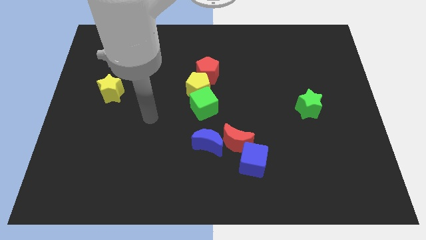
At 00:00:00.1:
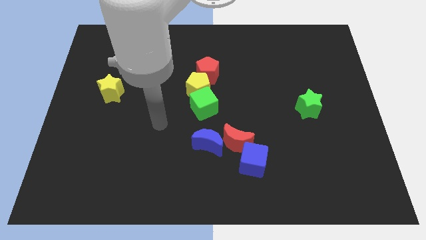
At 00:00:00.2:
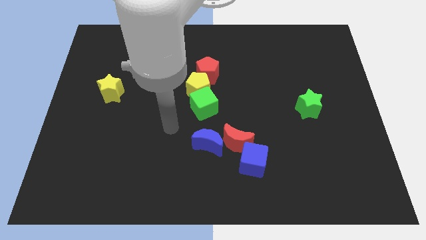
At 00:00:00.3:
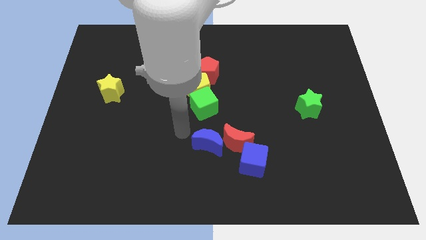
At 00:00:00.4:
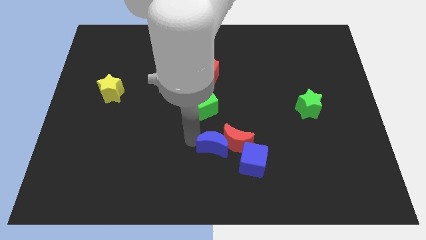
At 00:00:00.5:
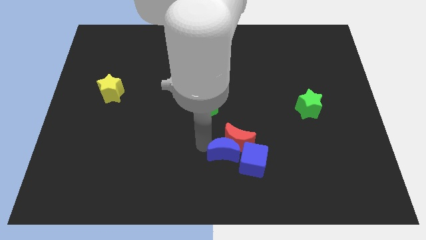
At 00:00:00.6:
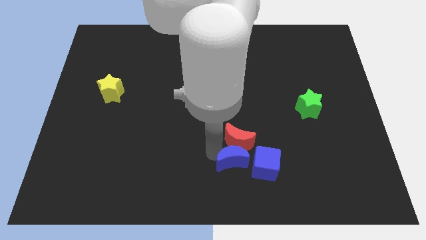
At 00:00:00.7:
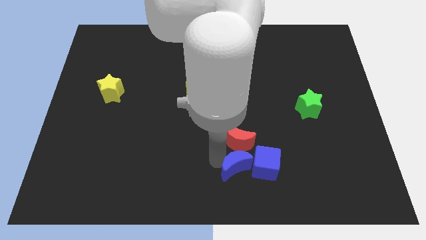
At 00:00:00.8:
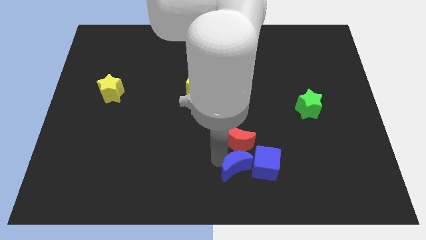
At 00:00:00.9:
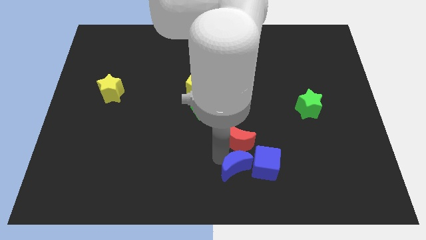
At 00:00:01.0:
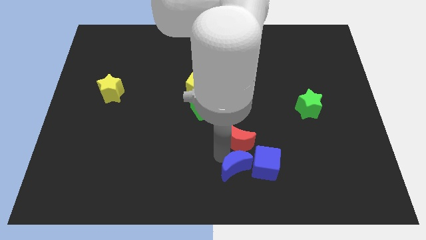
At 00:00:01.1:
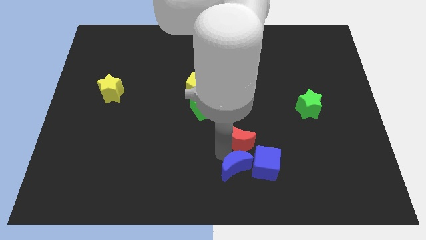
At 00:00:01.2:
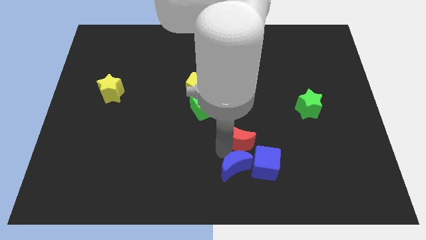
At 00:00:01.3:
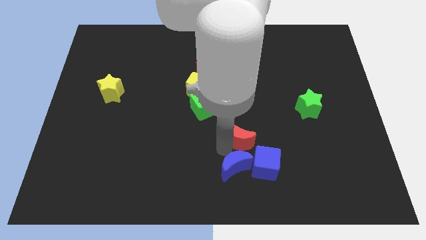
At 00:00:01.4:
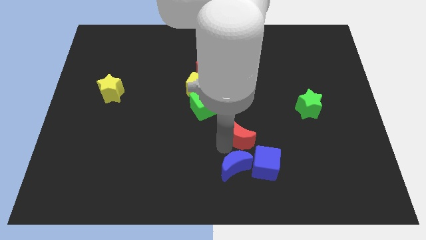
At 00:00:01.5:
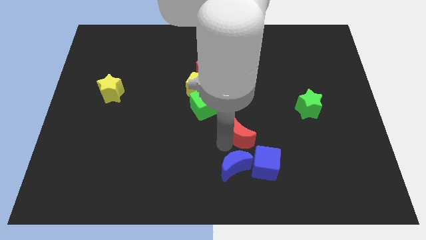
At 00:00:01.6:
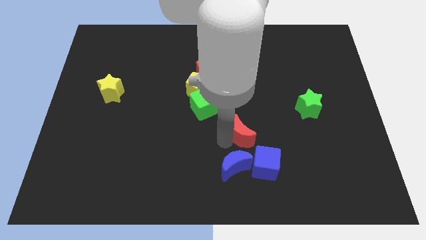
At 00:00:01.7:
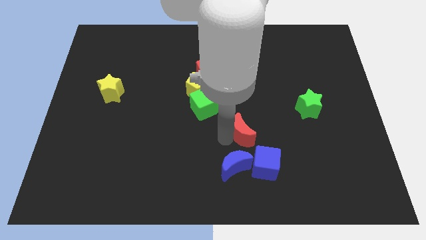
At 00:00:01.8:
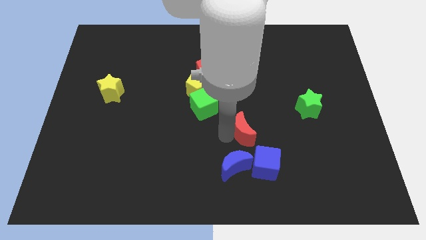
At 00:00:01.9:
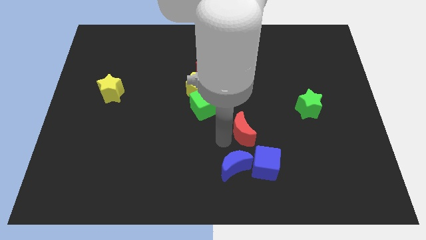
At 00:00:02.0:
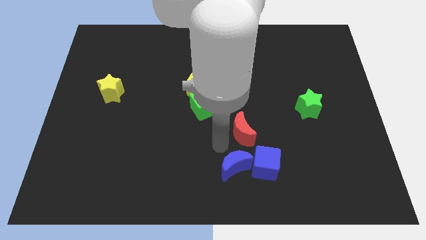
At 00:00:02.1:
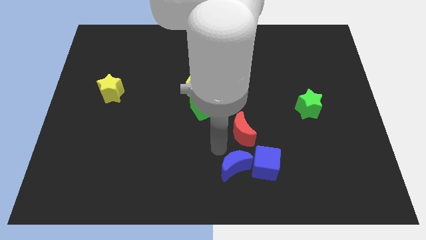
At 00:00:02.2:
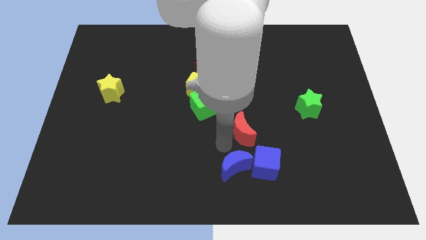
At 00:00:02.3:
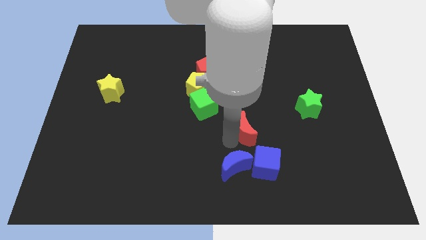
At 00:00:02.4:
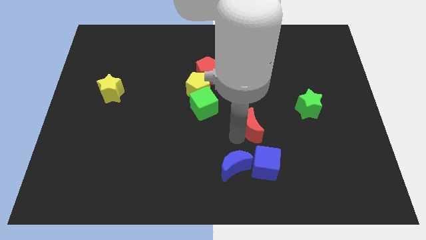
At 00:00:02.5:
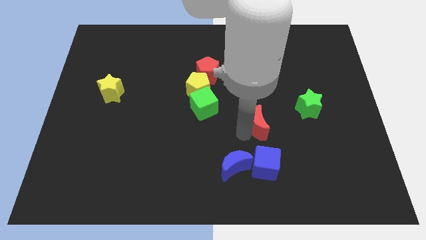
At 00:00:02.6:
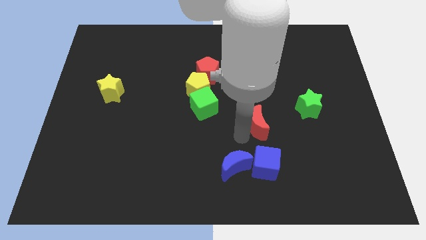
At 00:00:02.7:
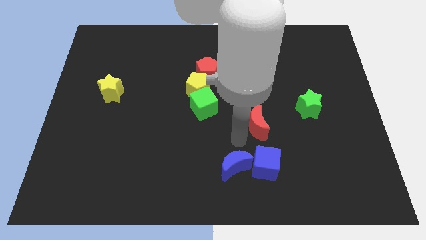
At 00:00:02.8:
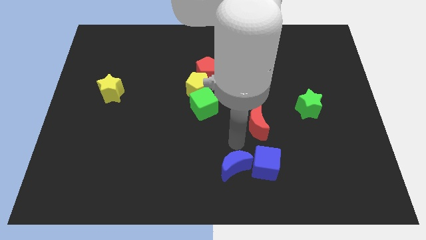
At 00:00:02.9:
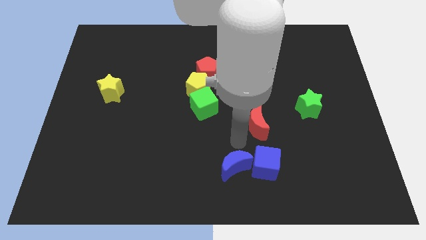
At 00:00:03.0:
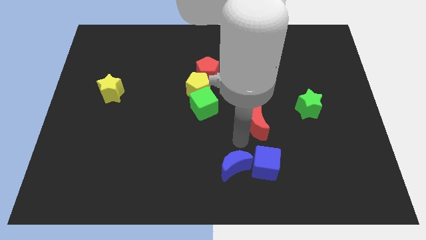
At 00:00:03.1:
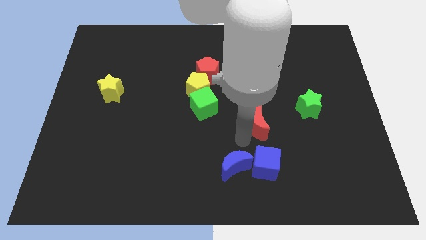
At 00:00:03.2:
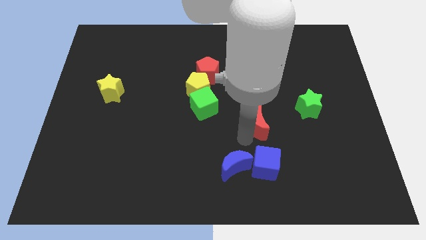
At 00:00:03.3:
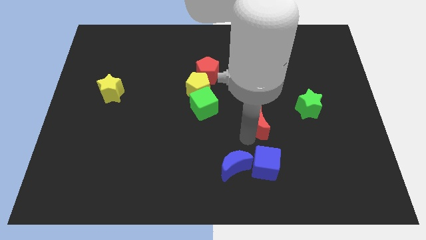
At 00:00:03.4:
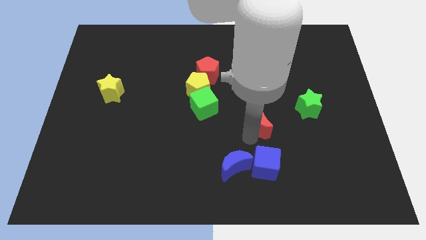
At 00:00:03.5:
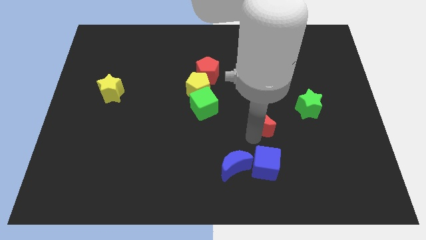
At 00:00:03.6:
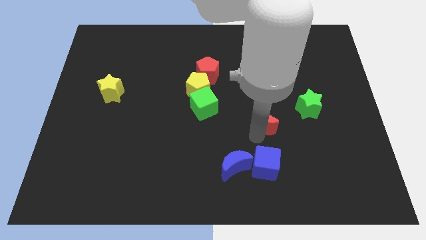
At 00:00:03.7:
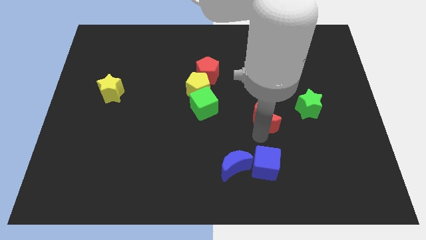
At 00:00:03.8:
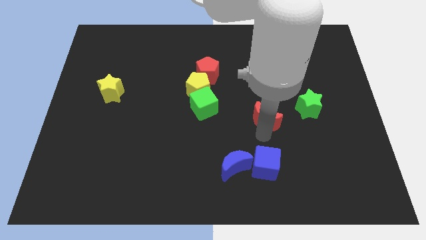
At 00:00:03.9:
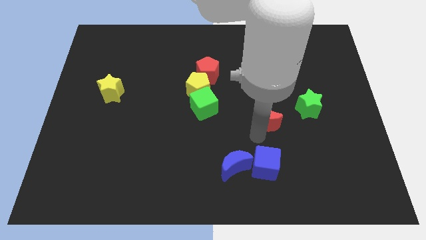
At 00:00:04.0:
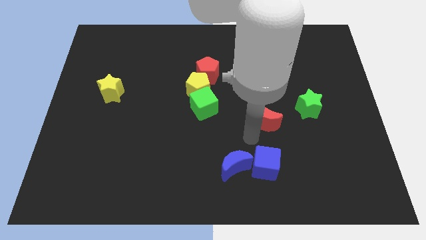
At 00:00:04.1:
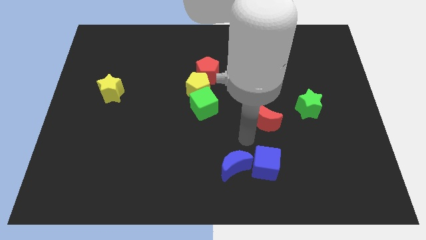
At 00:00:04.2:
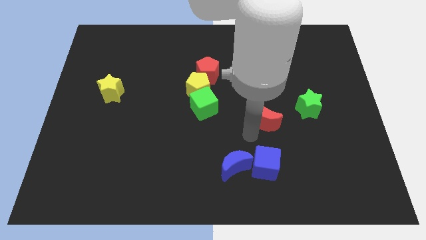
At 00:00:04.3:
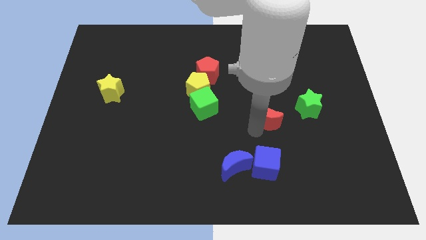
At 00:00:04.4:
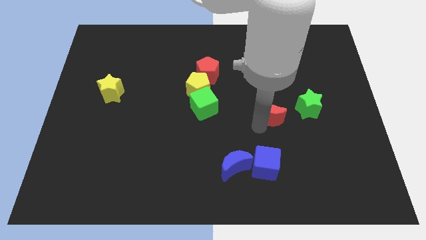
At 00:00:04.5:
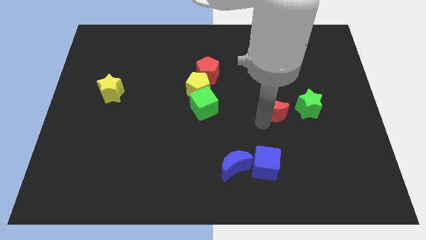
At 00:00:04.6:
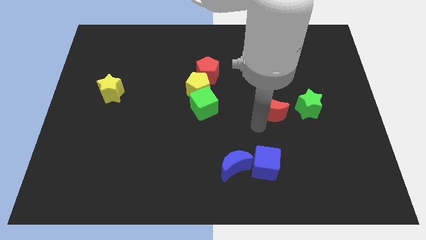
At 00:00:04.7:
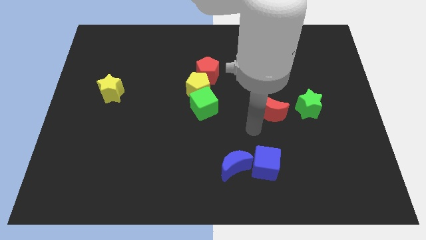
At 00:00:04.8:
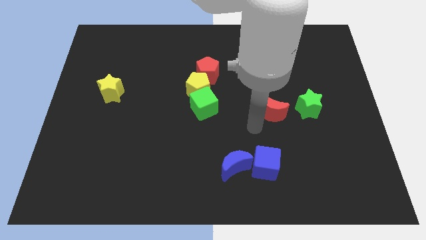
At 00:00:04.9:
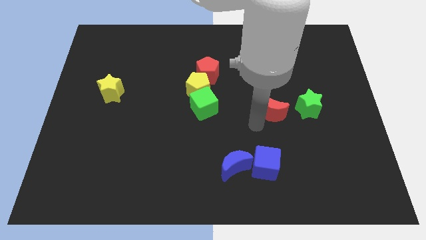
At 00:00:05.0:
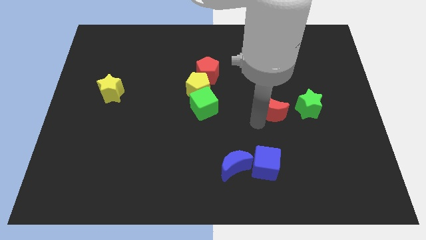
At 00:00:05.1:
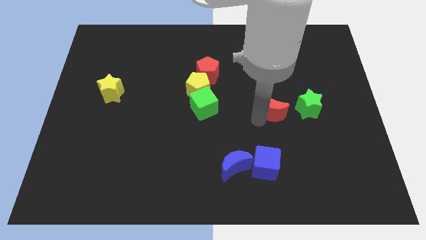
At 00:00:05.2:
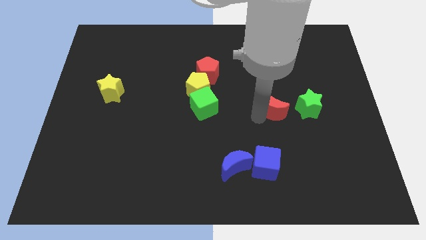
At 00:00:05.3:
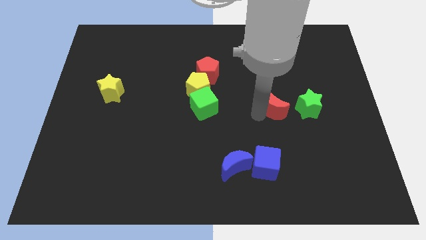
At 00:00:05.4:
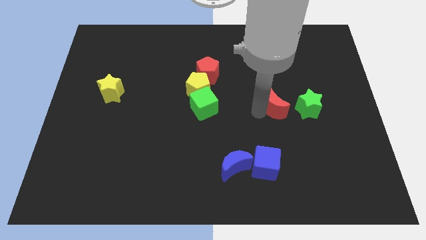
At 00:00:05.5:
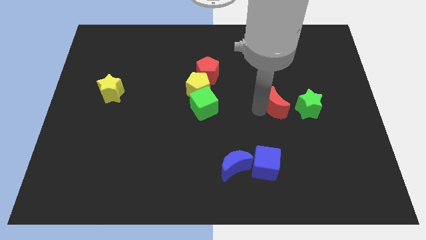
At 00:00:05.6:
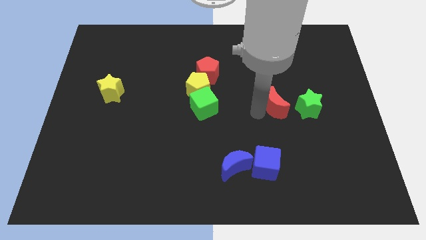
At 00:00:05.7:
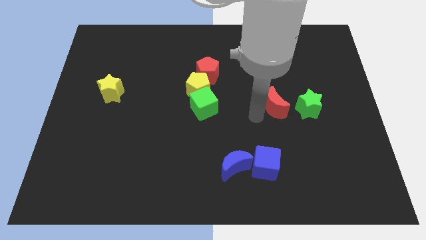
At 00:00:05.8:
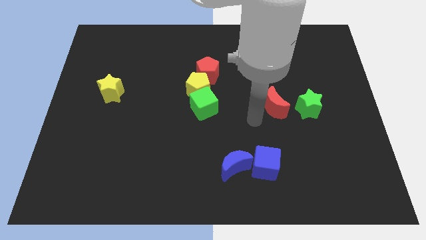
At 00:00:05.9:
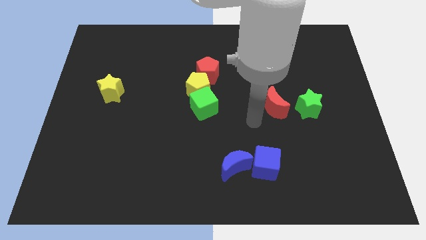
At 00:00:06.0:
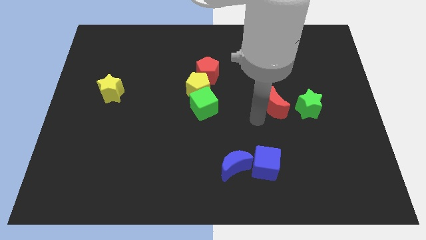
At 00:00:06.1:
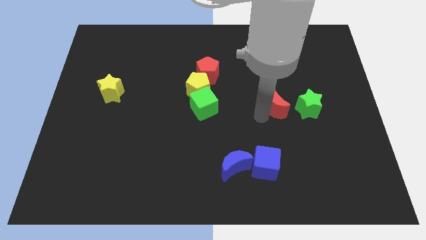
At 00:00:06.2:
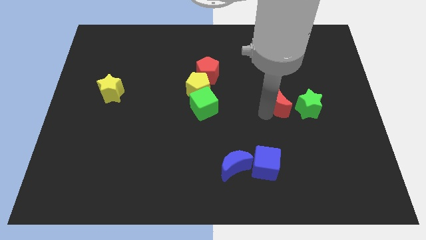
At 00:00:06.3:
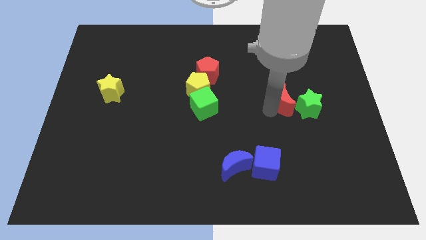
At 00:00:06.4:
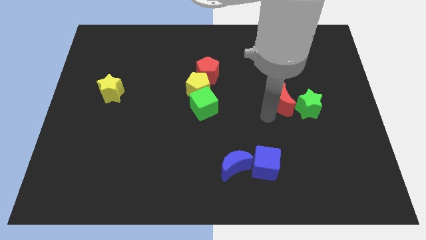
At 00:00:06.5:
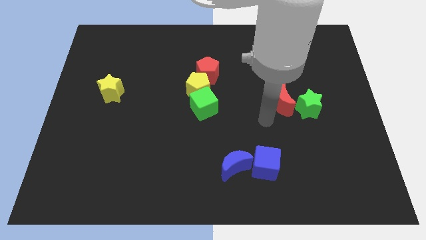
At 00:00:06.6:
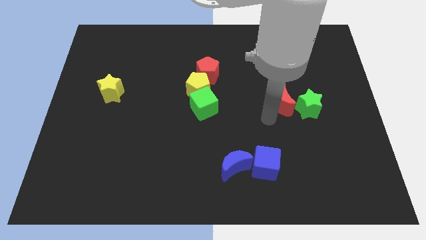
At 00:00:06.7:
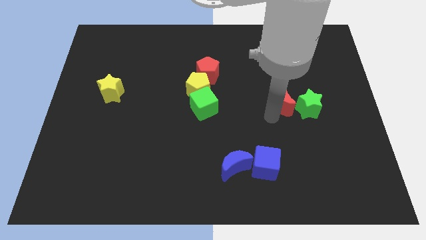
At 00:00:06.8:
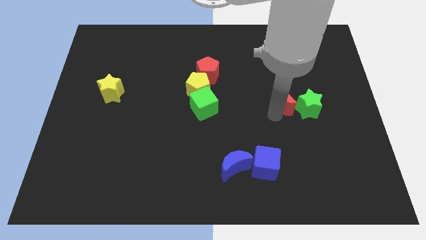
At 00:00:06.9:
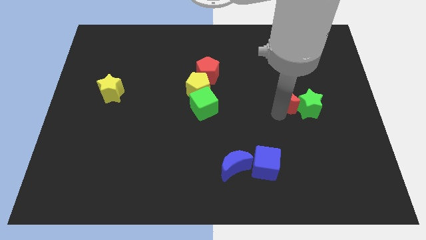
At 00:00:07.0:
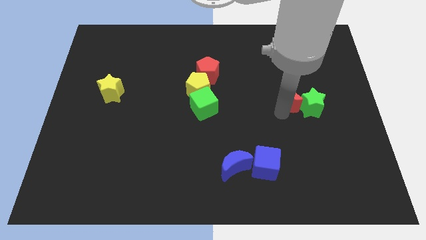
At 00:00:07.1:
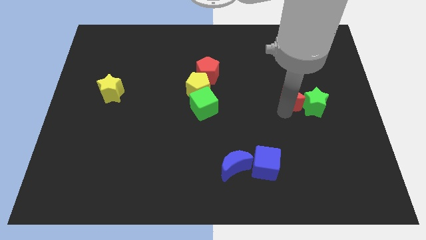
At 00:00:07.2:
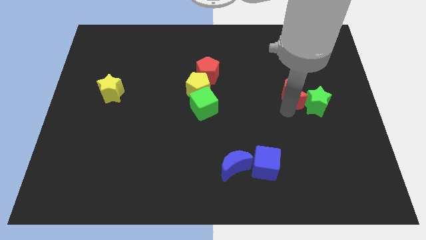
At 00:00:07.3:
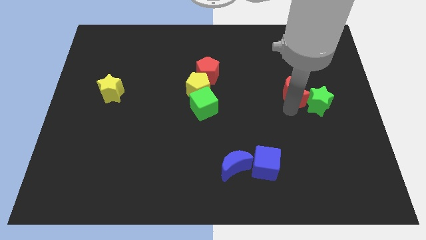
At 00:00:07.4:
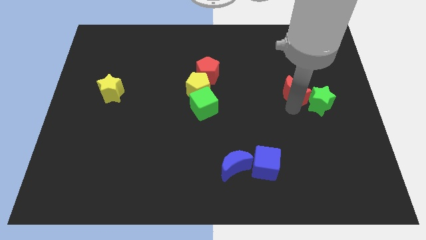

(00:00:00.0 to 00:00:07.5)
slide the red moon up and right diagonally

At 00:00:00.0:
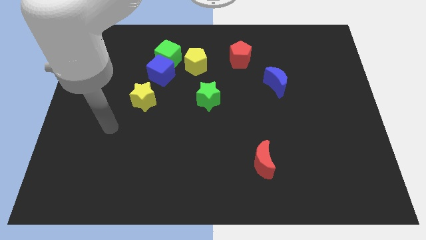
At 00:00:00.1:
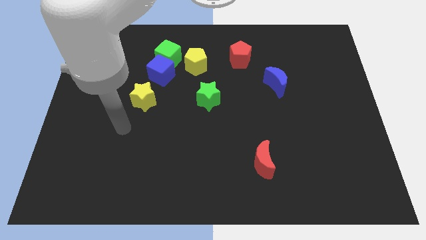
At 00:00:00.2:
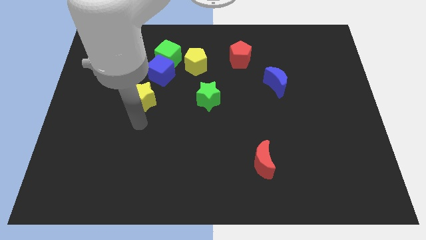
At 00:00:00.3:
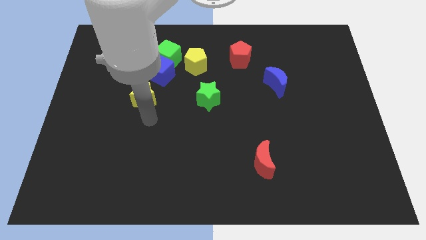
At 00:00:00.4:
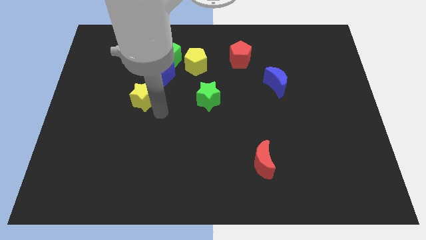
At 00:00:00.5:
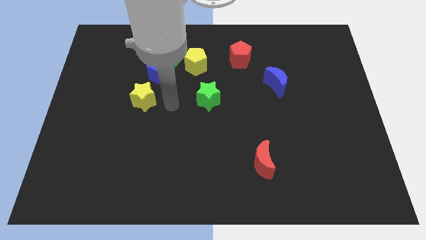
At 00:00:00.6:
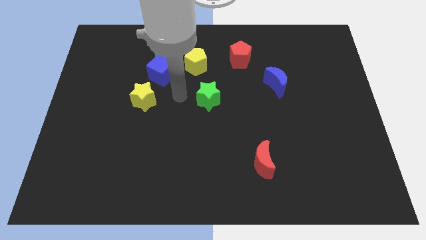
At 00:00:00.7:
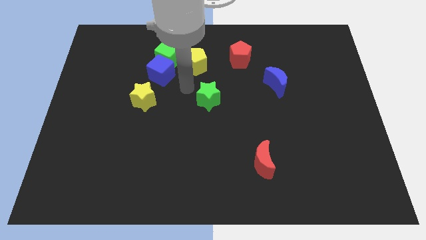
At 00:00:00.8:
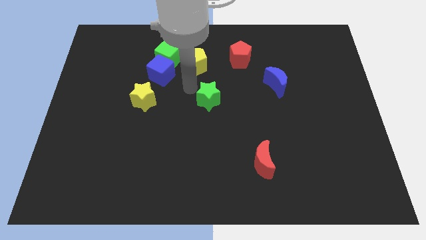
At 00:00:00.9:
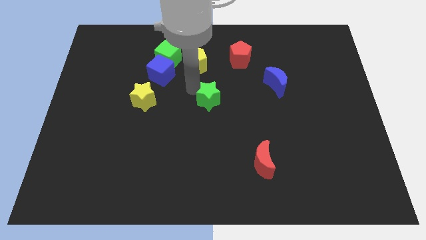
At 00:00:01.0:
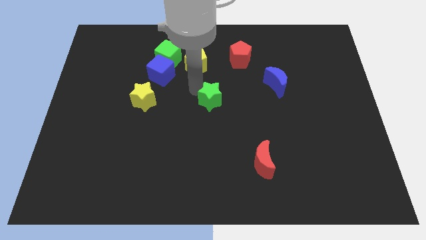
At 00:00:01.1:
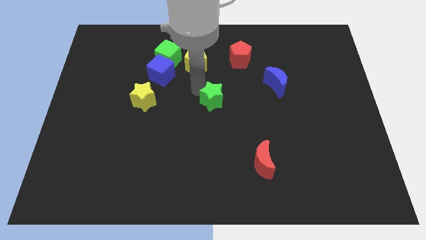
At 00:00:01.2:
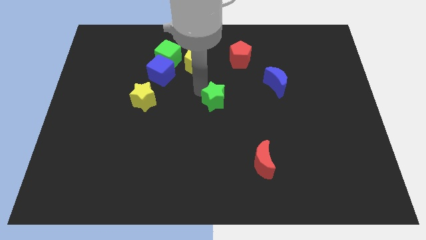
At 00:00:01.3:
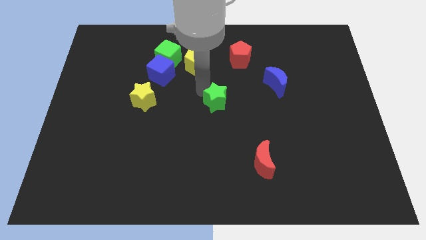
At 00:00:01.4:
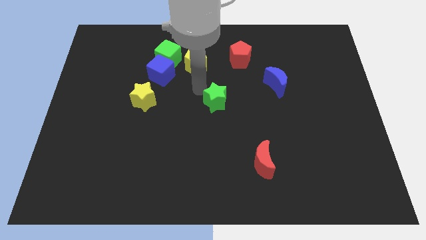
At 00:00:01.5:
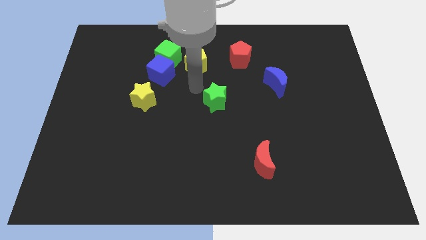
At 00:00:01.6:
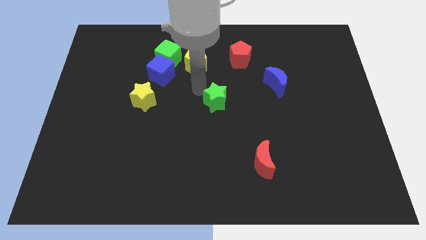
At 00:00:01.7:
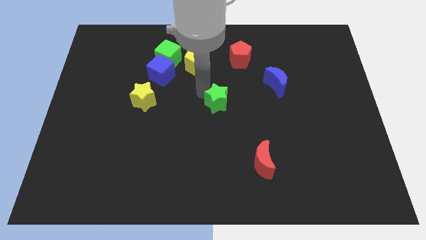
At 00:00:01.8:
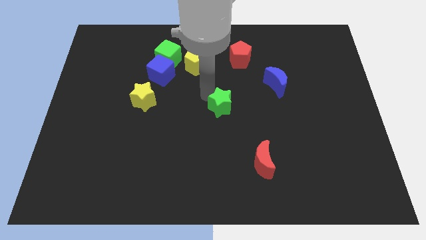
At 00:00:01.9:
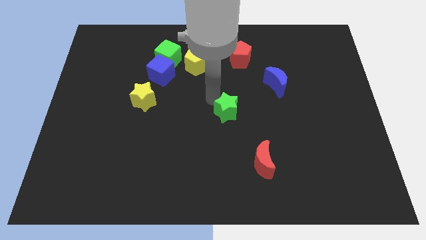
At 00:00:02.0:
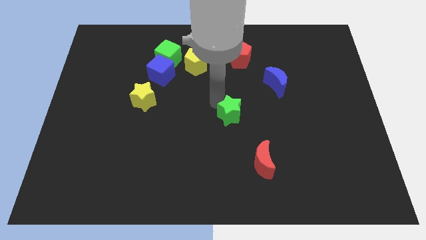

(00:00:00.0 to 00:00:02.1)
move the green star downwards and right diagonally a bit
